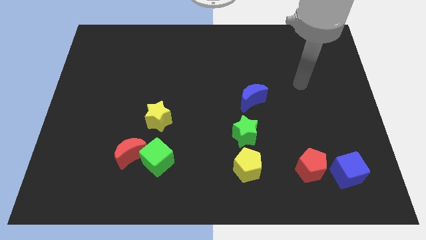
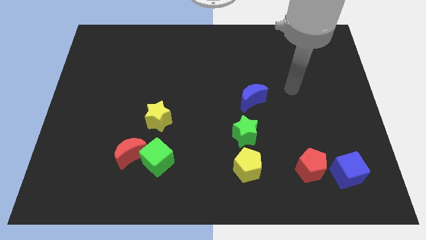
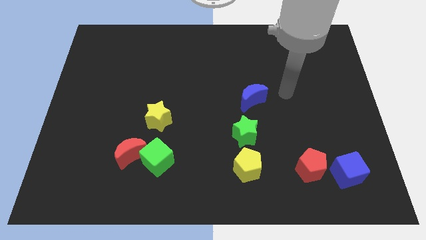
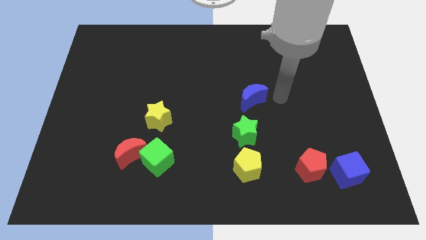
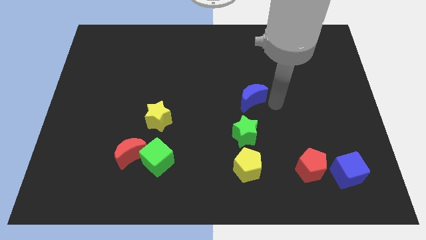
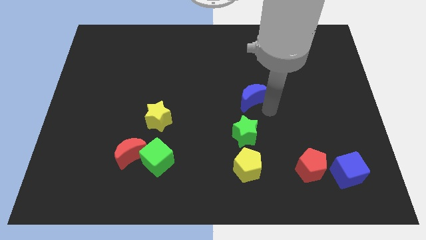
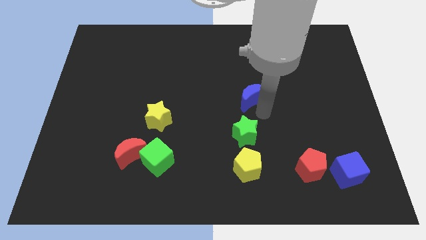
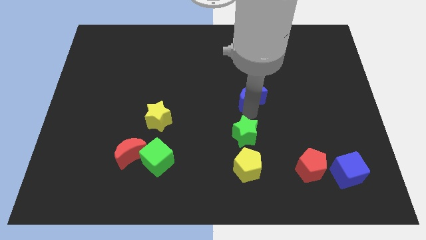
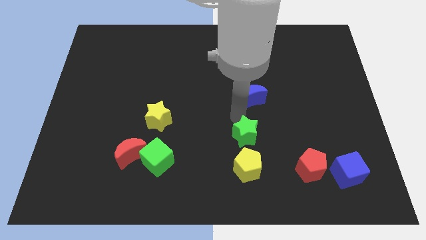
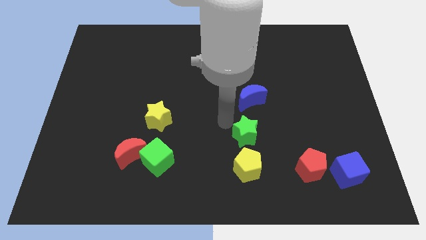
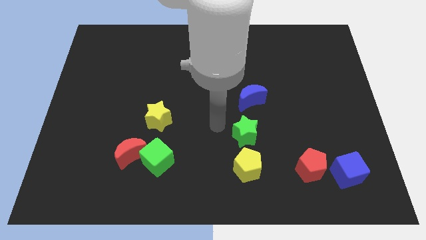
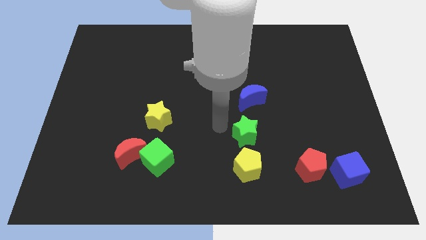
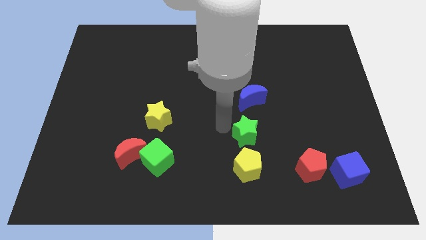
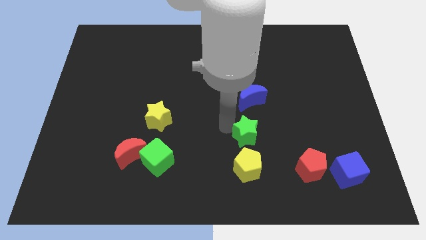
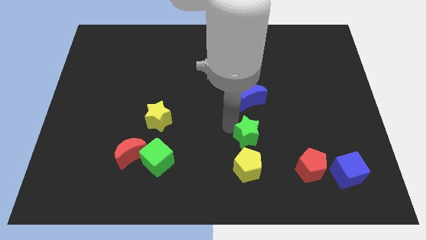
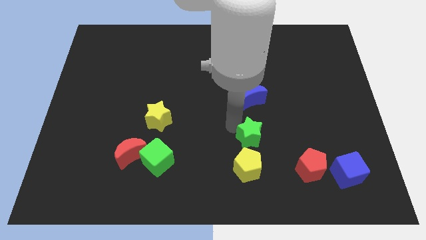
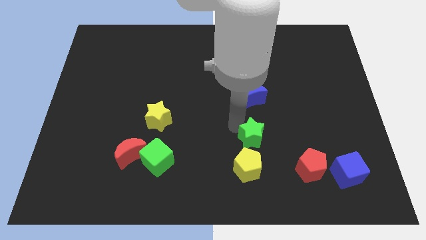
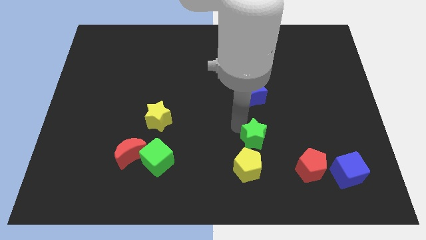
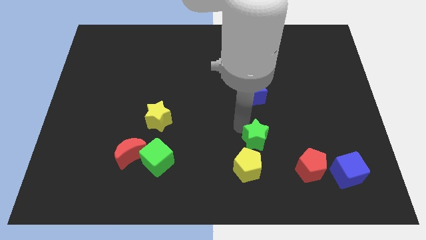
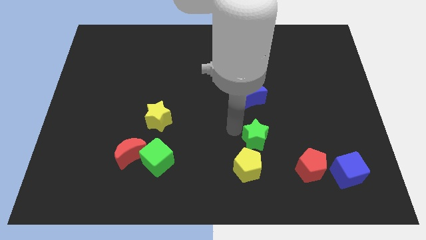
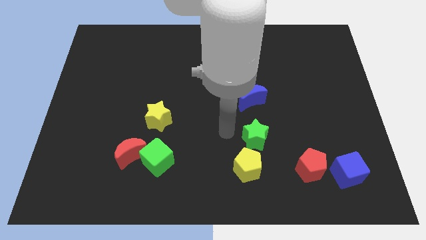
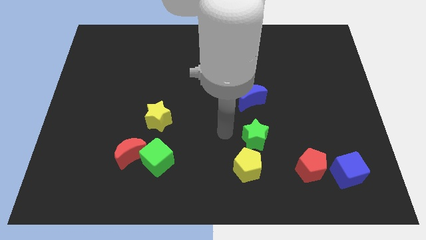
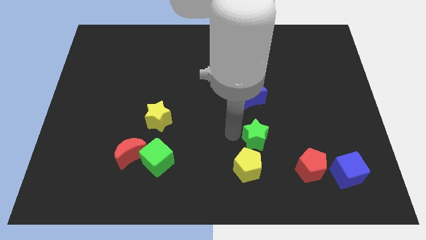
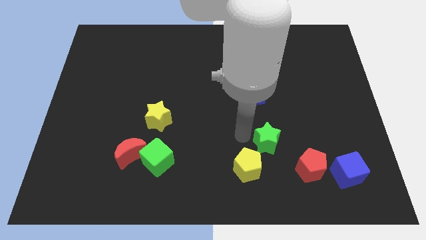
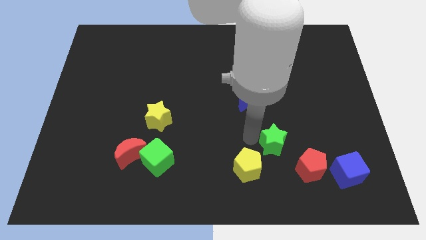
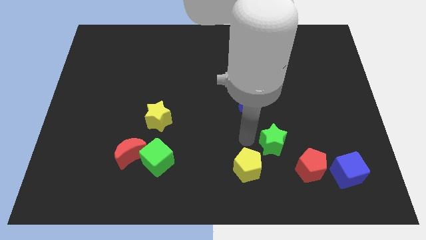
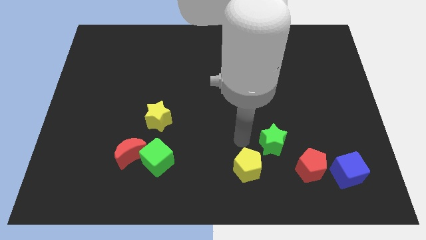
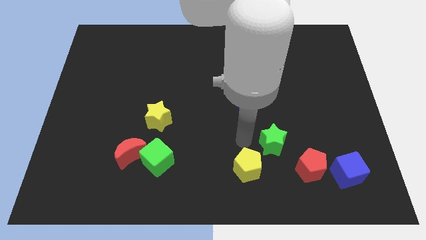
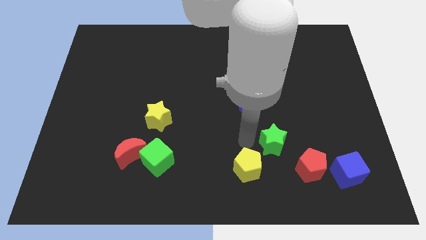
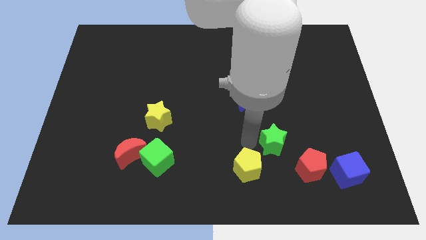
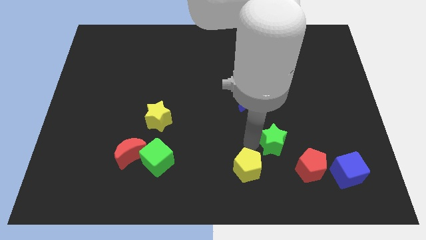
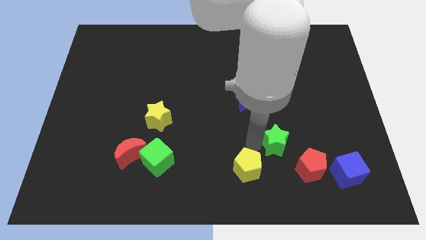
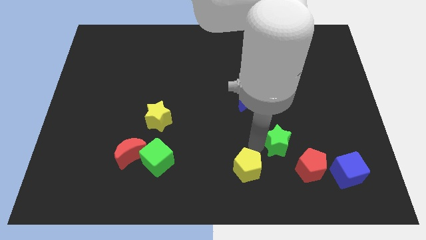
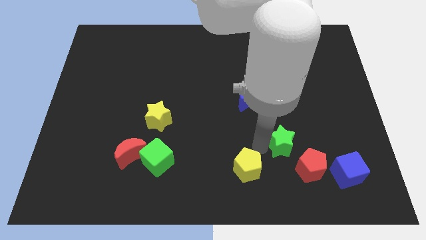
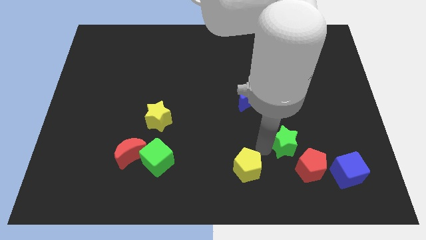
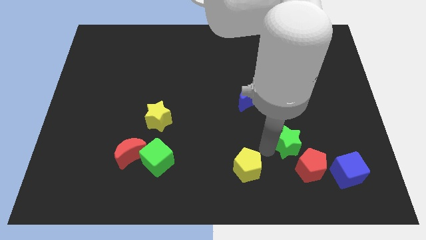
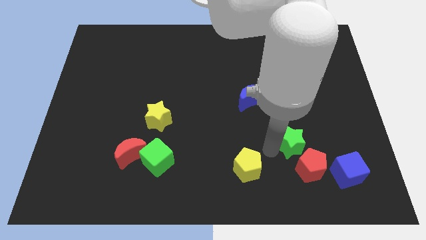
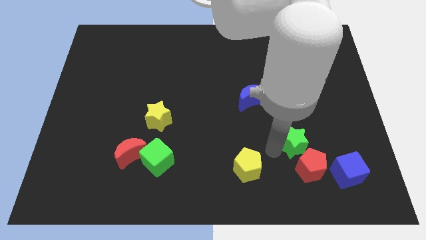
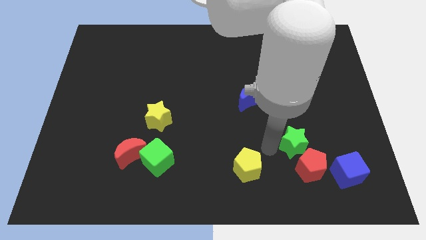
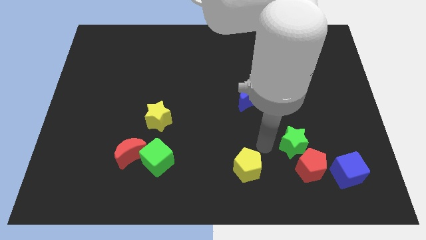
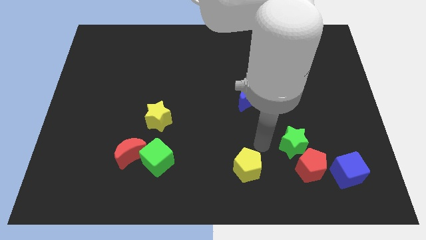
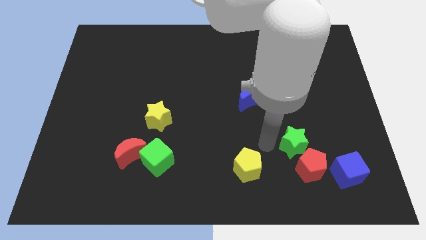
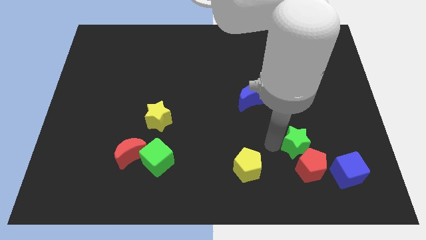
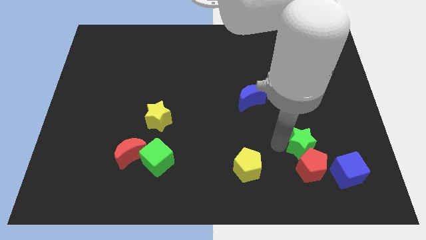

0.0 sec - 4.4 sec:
put the green star diagonally up and to the right of the red pentagon

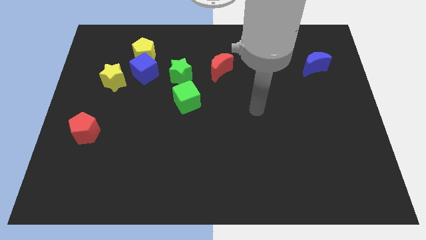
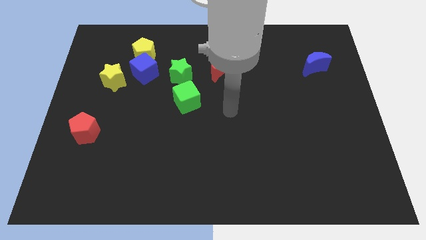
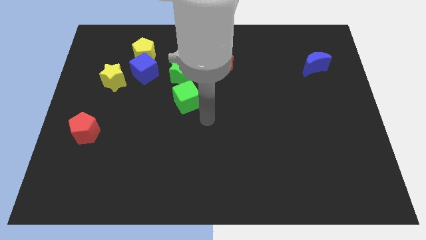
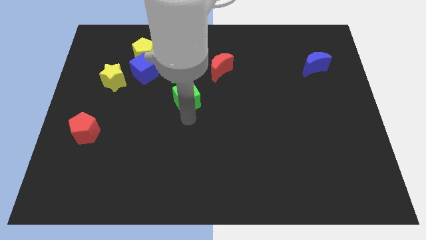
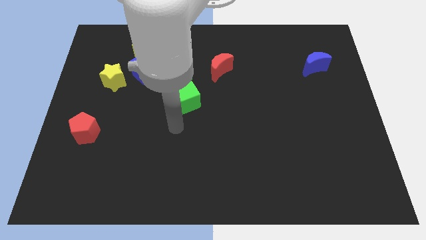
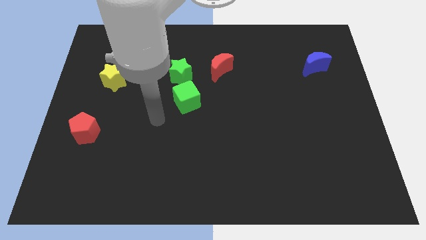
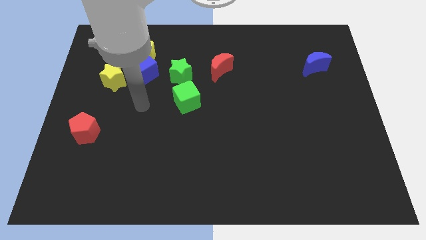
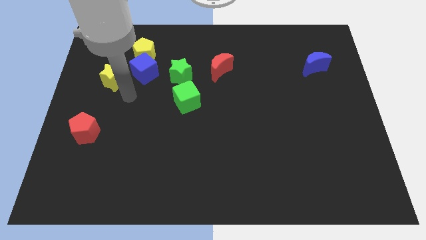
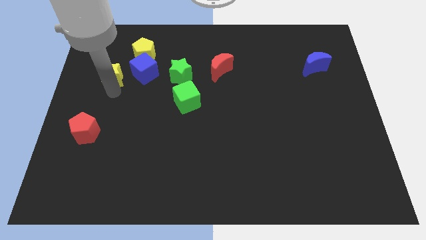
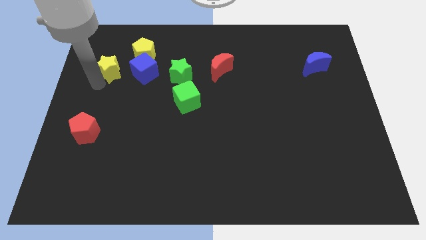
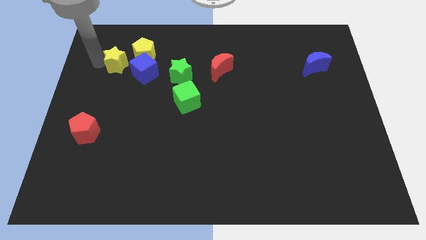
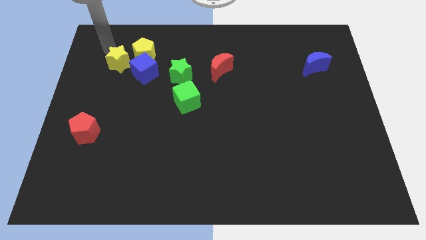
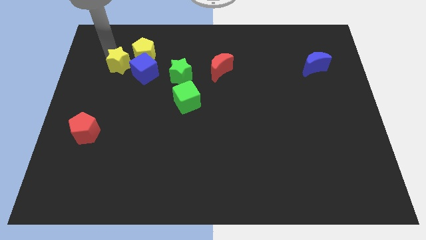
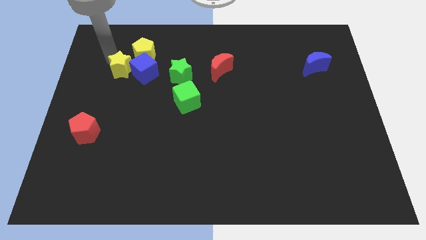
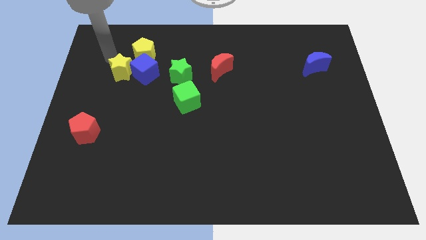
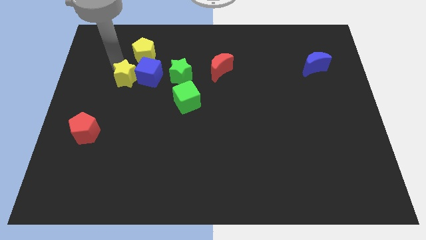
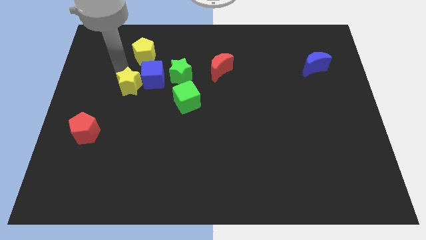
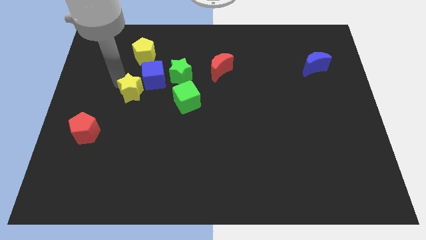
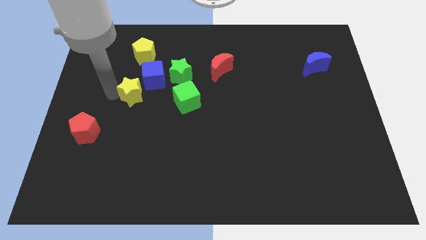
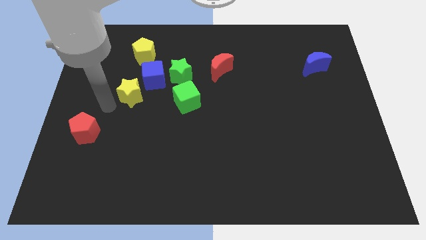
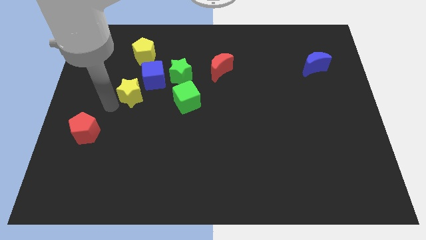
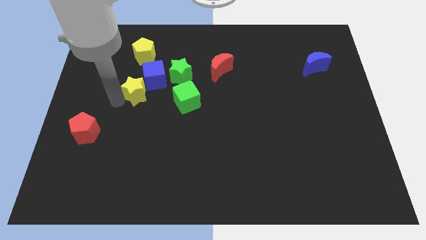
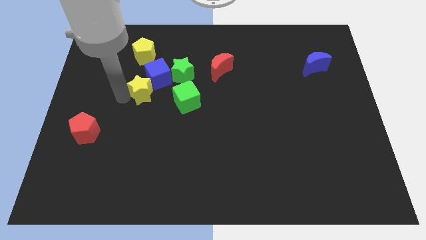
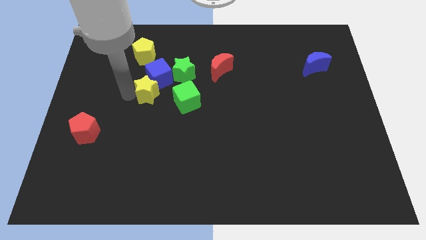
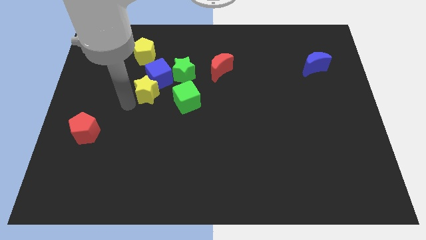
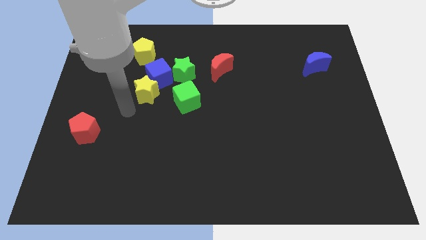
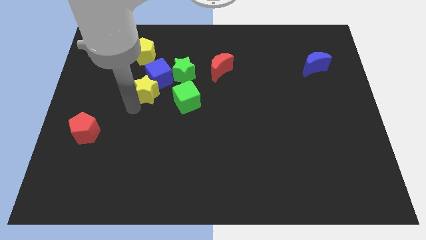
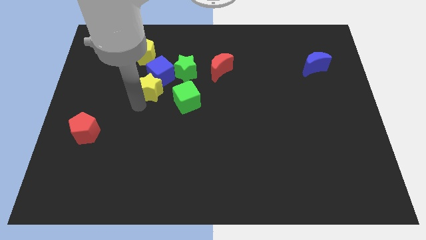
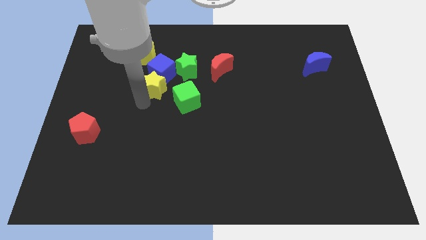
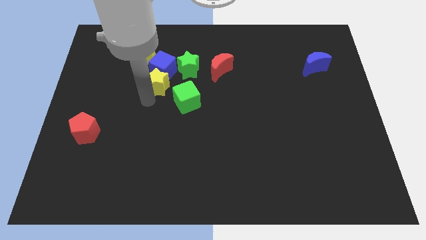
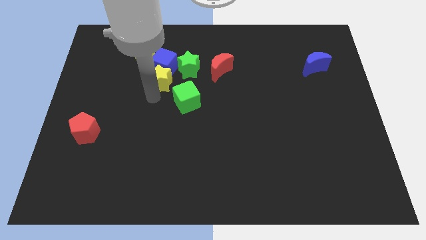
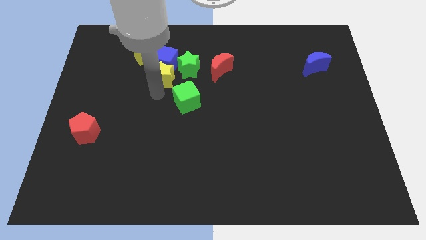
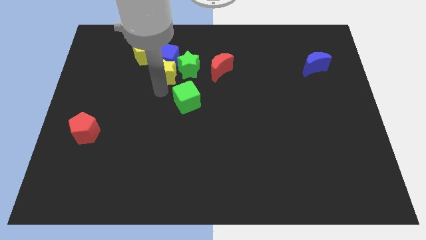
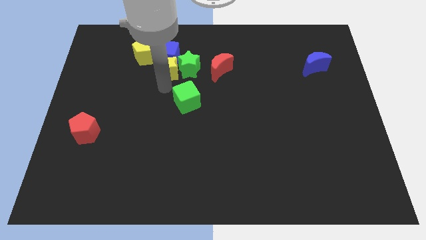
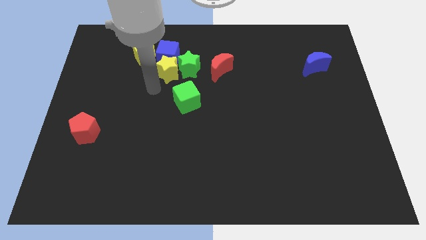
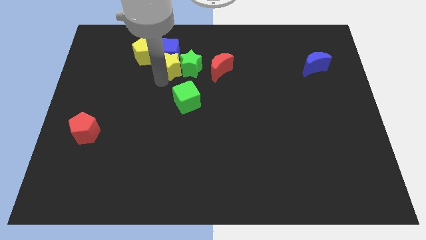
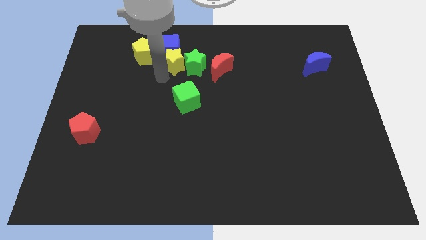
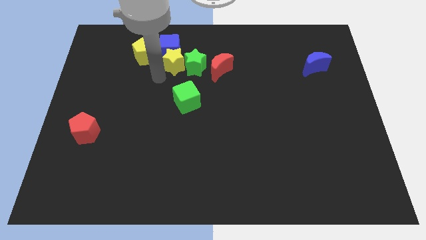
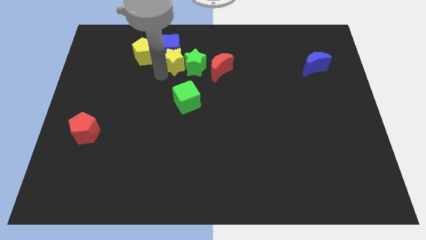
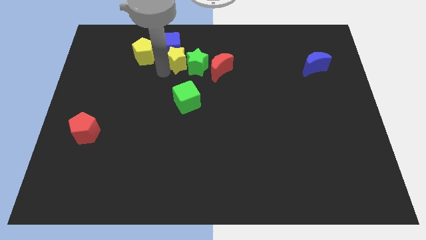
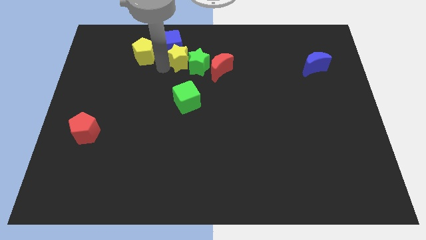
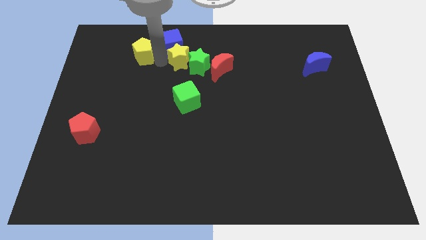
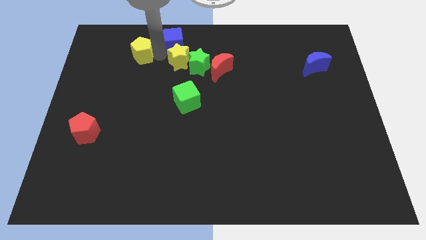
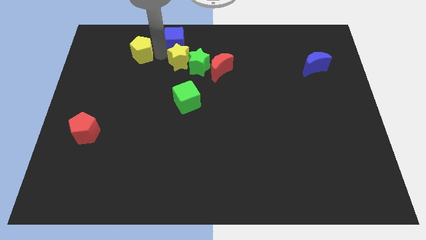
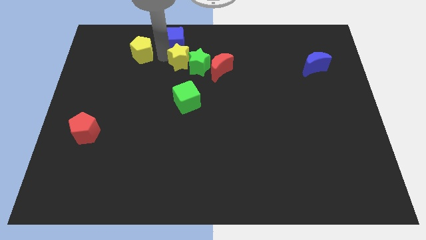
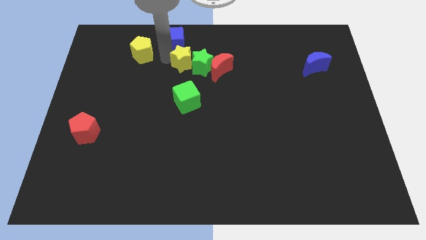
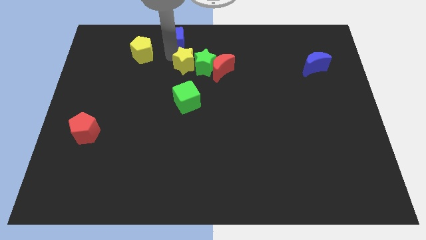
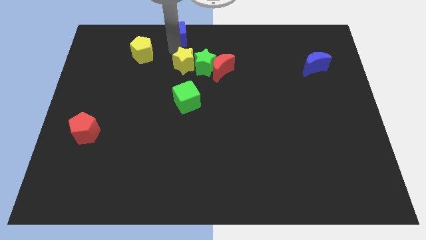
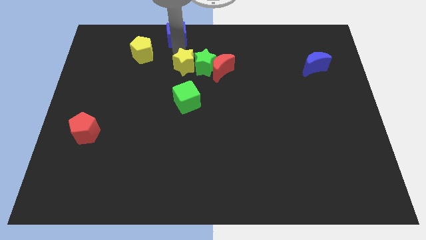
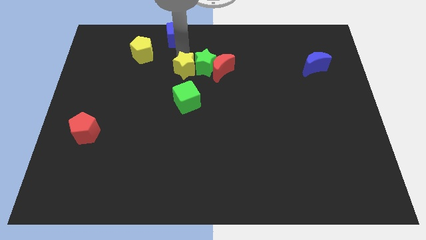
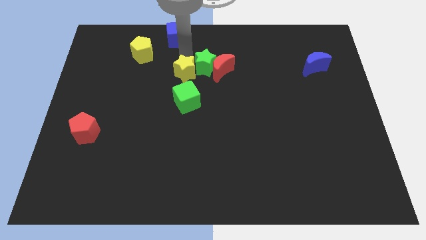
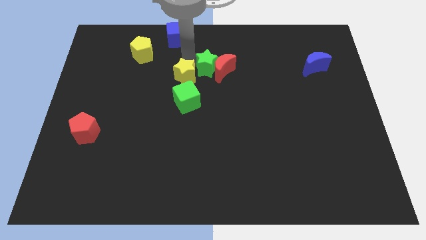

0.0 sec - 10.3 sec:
move the yellow star to the bottom left side of the red moon
